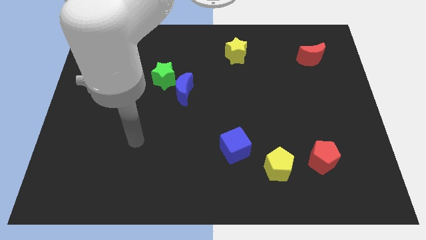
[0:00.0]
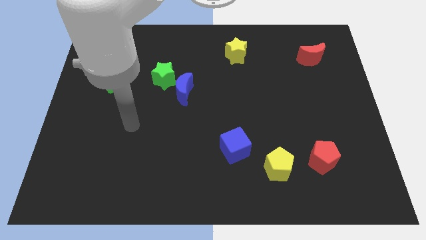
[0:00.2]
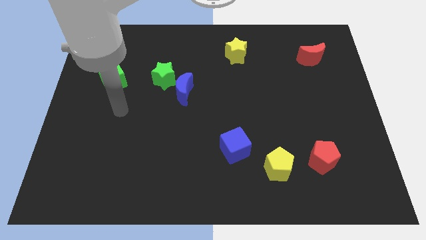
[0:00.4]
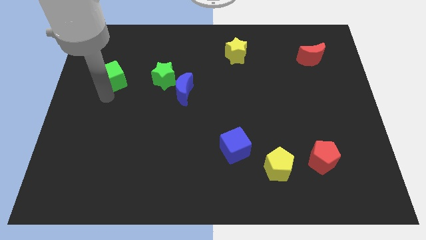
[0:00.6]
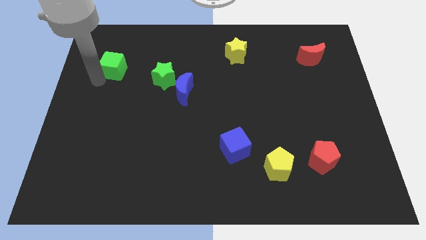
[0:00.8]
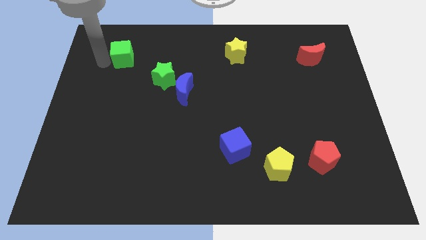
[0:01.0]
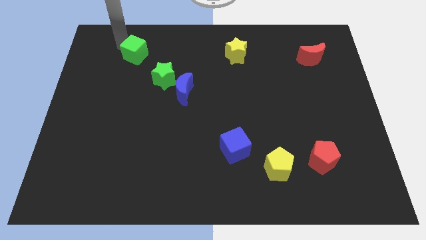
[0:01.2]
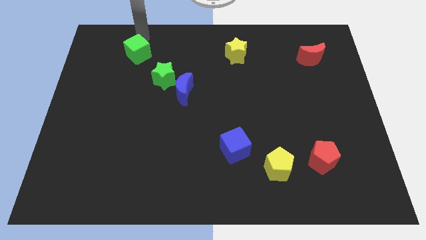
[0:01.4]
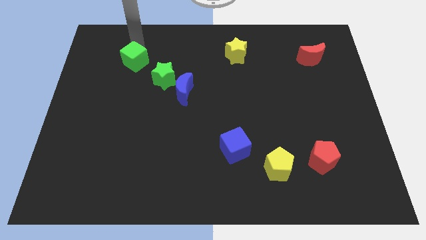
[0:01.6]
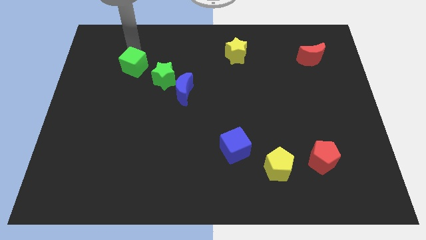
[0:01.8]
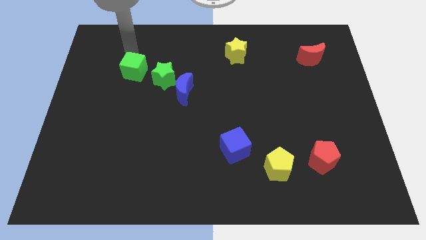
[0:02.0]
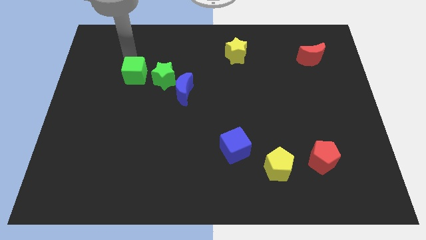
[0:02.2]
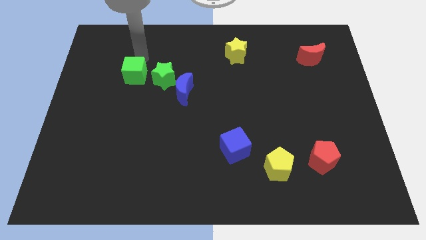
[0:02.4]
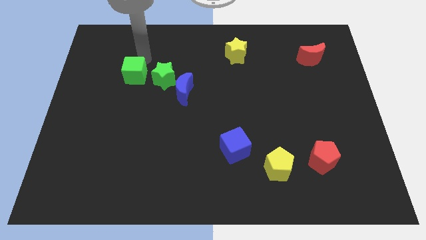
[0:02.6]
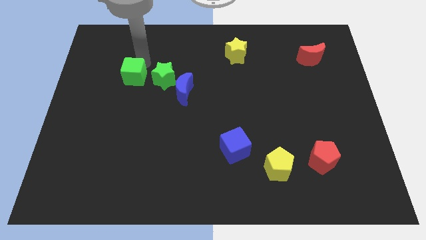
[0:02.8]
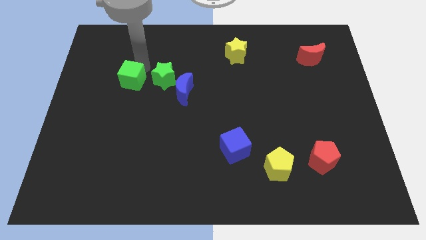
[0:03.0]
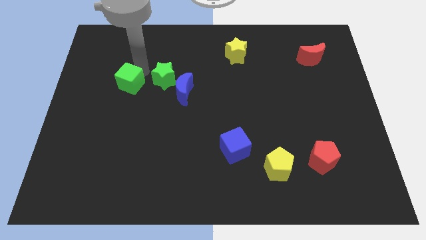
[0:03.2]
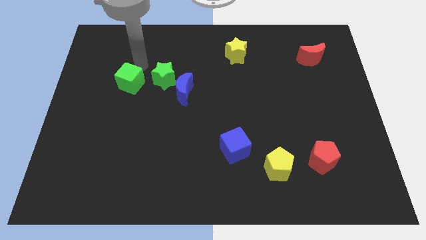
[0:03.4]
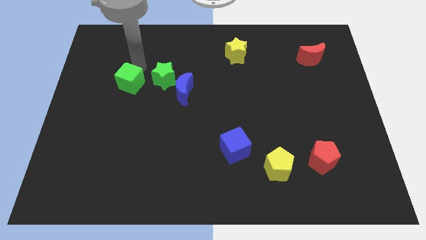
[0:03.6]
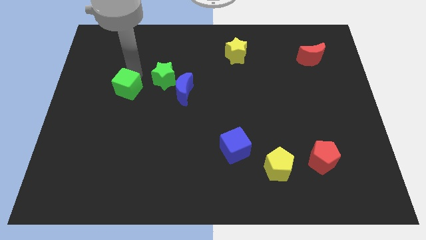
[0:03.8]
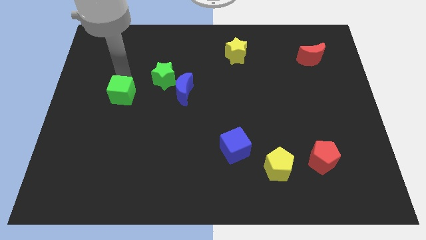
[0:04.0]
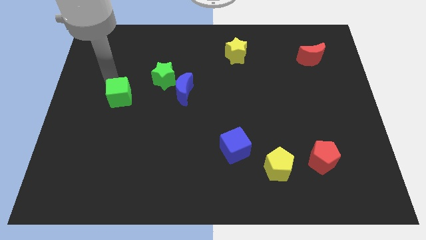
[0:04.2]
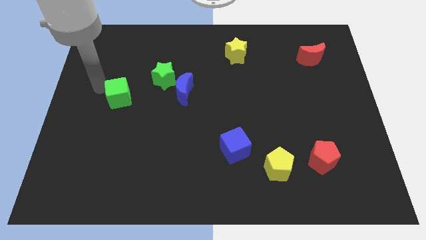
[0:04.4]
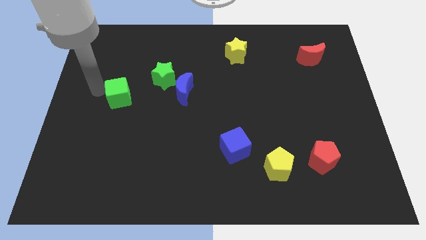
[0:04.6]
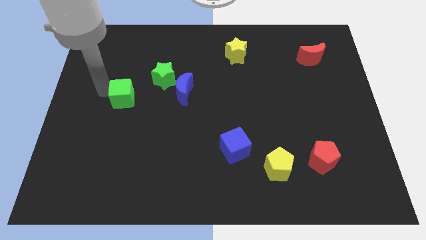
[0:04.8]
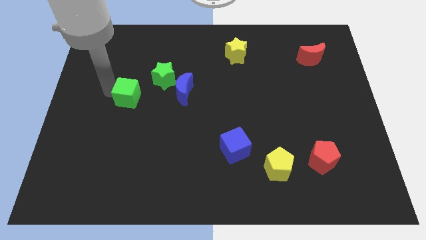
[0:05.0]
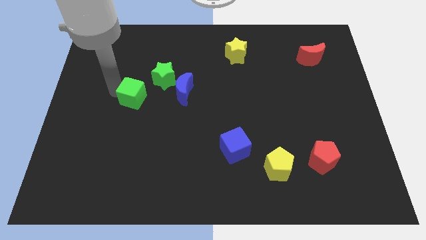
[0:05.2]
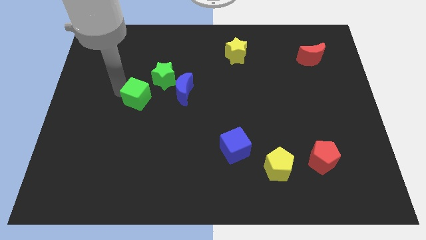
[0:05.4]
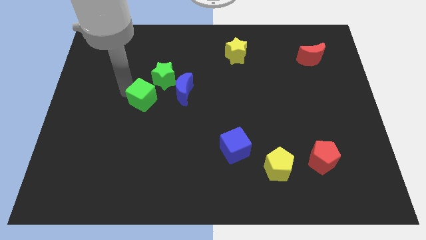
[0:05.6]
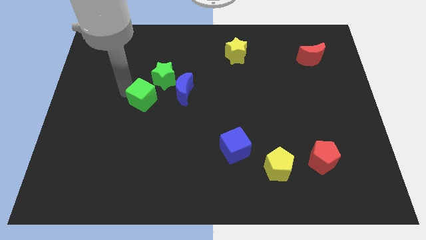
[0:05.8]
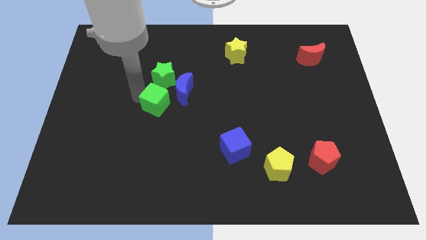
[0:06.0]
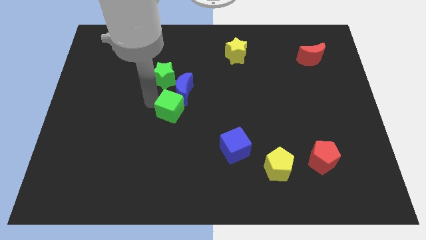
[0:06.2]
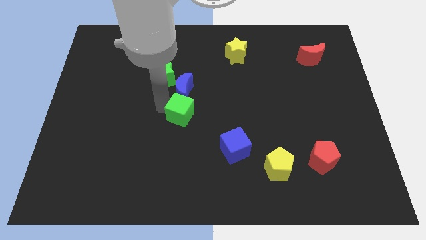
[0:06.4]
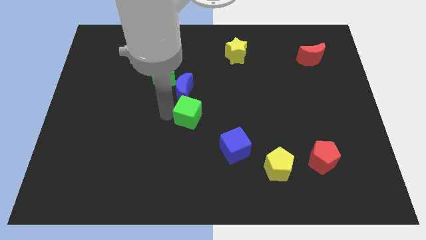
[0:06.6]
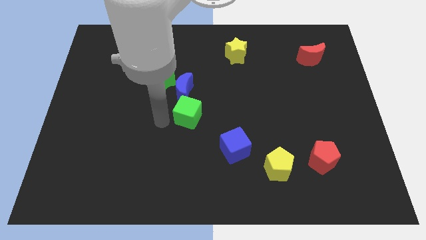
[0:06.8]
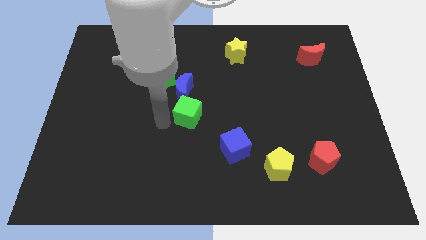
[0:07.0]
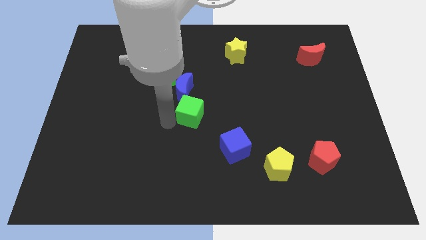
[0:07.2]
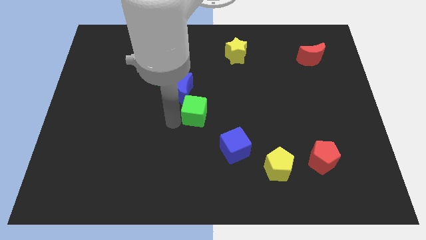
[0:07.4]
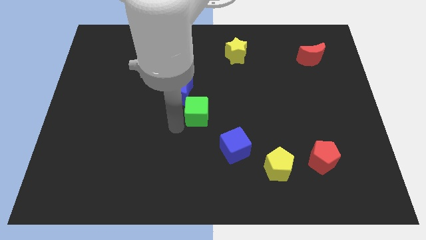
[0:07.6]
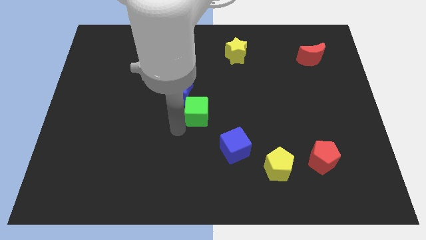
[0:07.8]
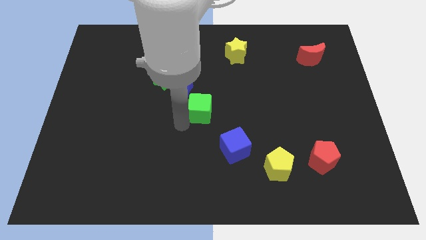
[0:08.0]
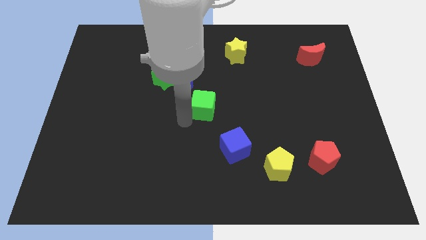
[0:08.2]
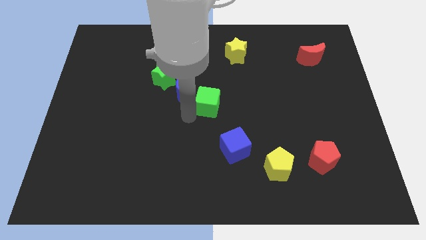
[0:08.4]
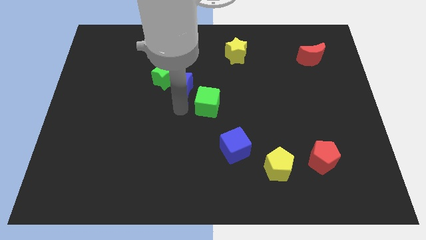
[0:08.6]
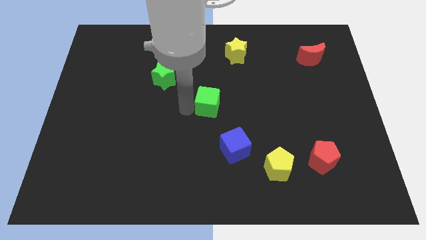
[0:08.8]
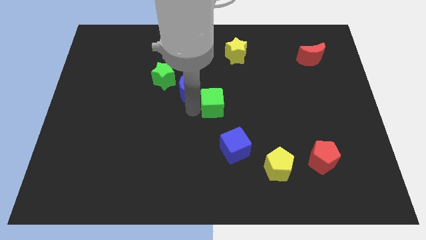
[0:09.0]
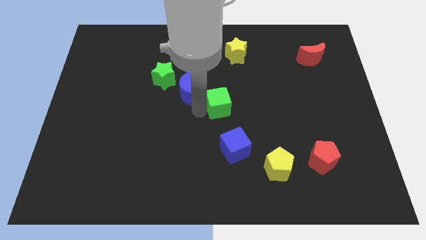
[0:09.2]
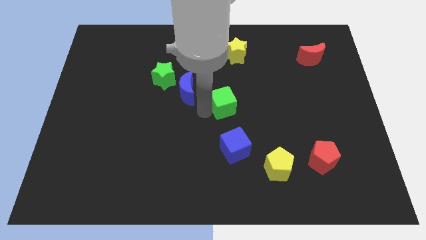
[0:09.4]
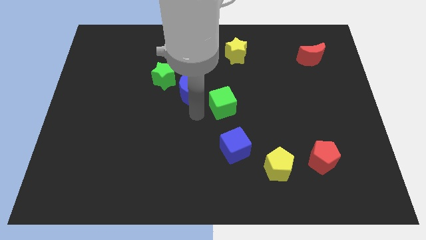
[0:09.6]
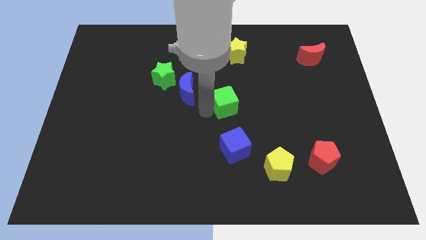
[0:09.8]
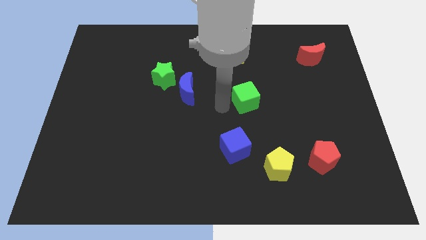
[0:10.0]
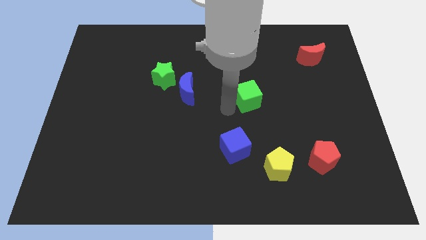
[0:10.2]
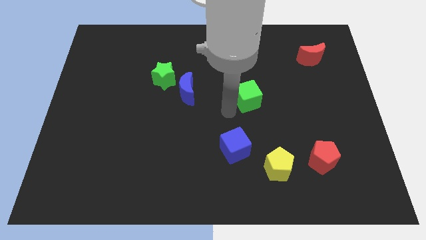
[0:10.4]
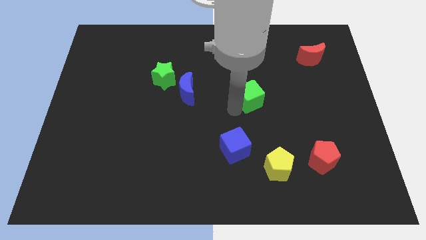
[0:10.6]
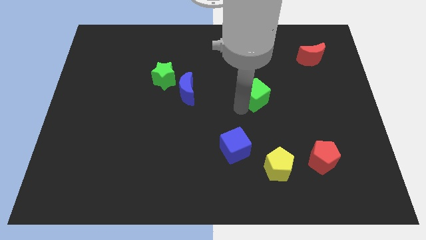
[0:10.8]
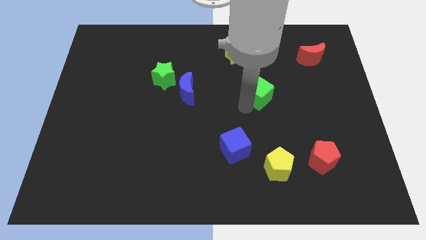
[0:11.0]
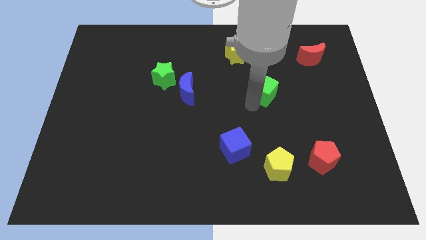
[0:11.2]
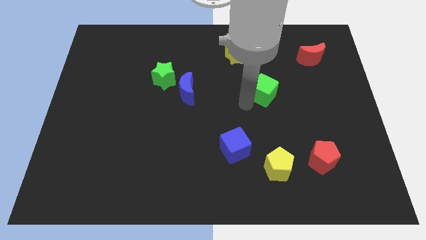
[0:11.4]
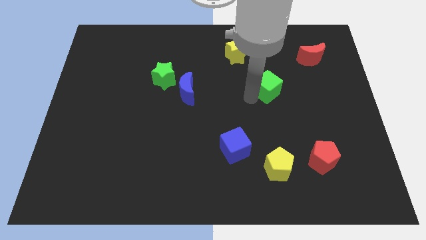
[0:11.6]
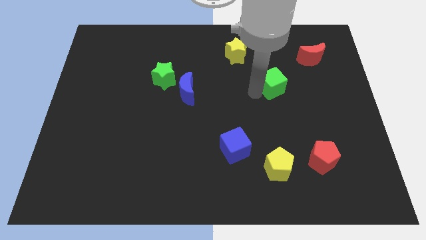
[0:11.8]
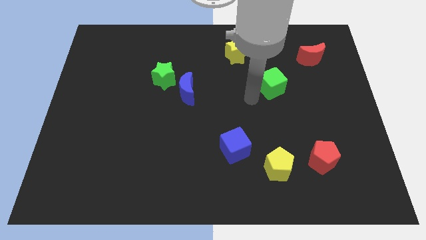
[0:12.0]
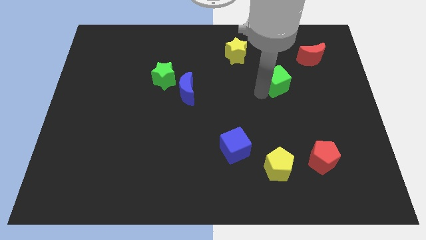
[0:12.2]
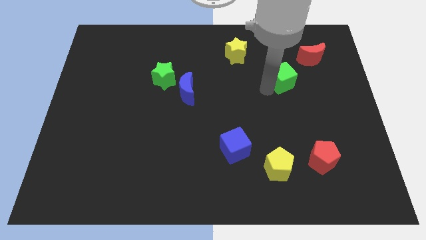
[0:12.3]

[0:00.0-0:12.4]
slide the green cube diagonally down and to the left of the red moon

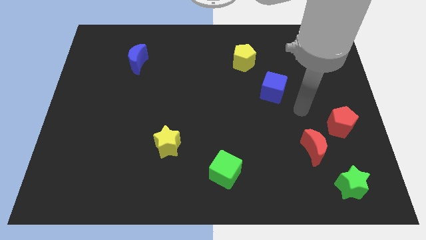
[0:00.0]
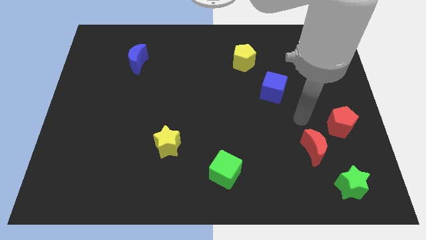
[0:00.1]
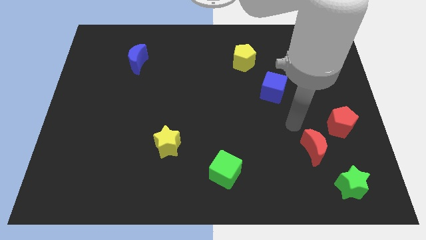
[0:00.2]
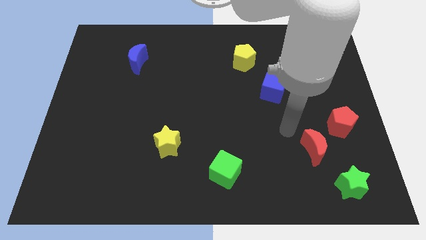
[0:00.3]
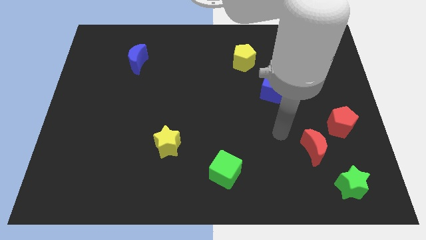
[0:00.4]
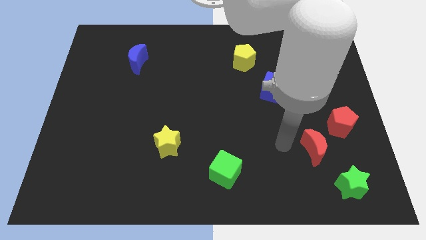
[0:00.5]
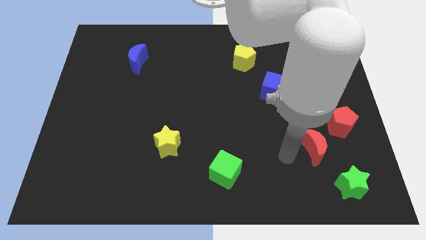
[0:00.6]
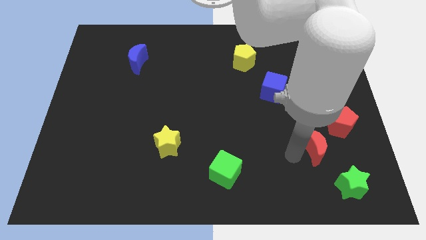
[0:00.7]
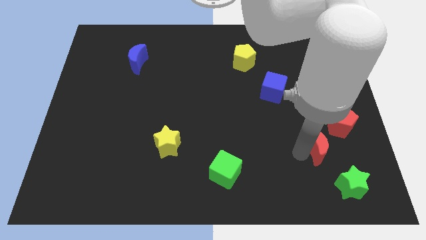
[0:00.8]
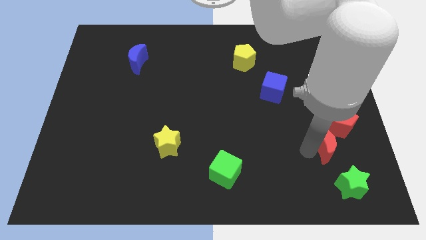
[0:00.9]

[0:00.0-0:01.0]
move the red moon above the green star
